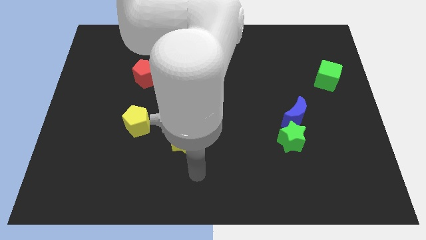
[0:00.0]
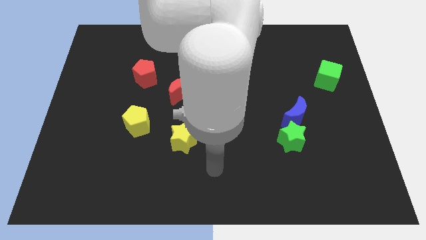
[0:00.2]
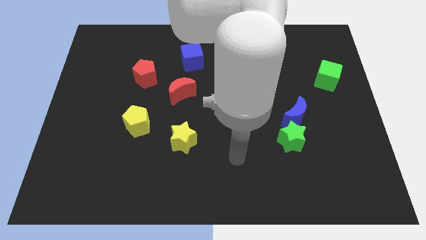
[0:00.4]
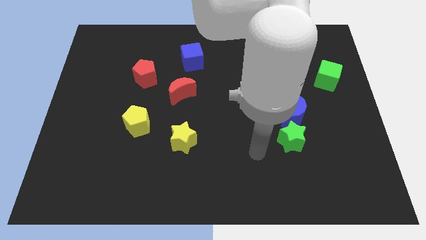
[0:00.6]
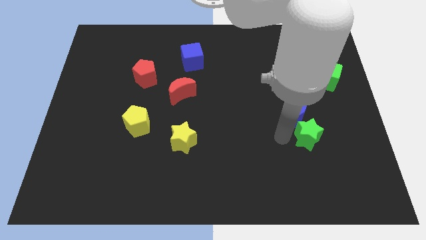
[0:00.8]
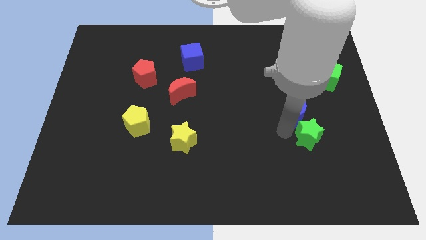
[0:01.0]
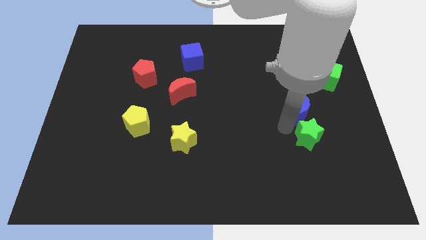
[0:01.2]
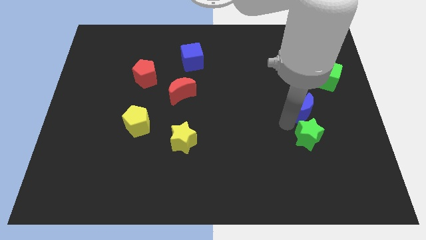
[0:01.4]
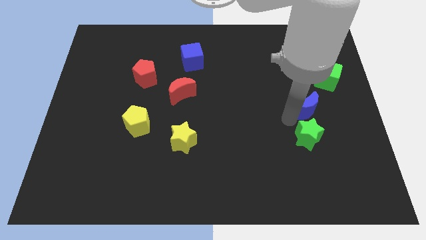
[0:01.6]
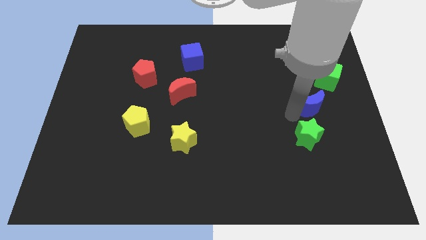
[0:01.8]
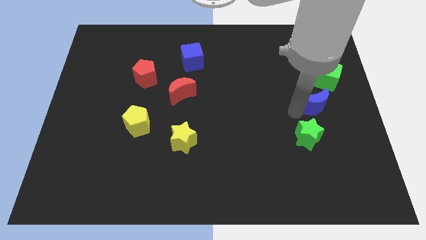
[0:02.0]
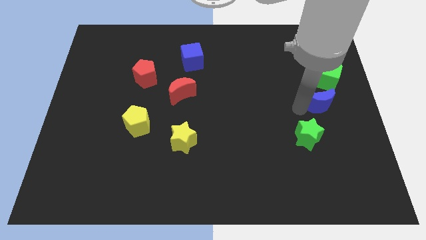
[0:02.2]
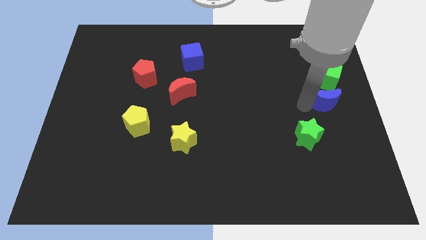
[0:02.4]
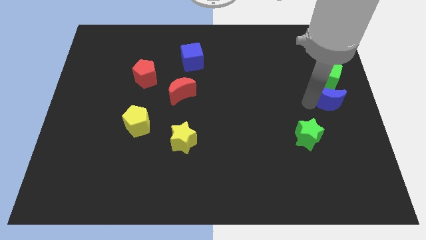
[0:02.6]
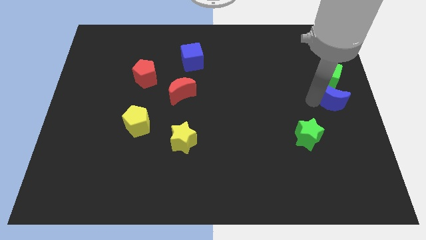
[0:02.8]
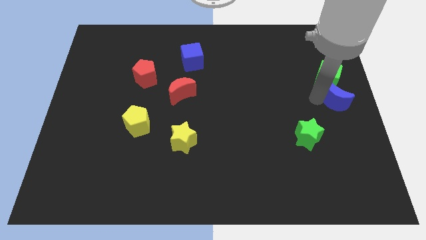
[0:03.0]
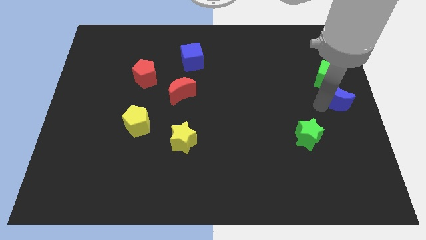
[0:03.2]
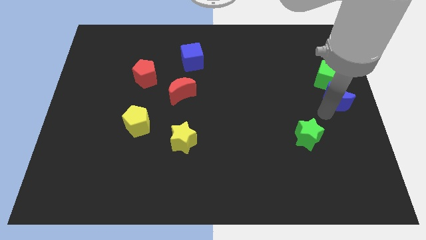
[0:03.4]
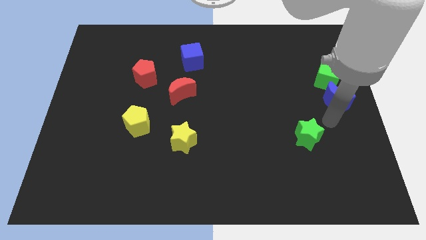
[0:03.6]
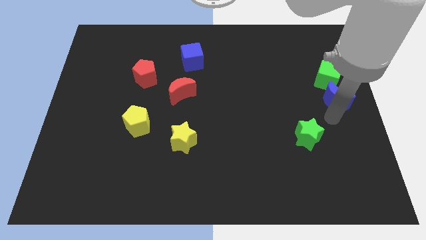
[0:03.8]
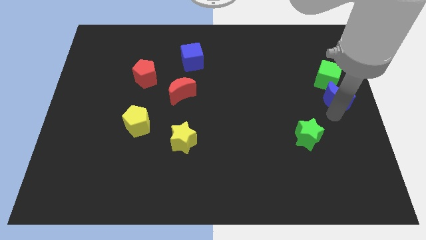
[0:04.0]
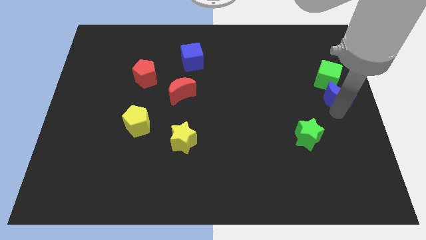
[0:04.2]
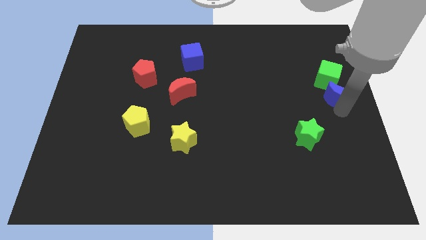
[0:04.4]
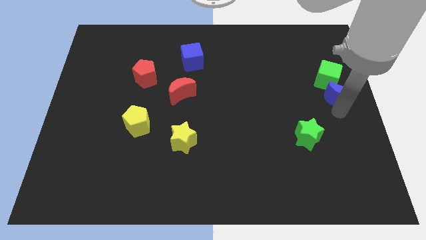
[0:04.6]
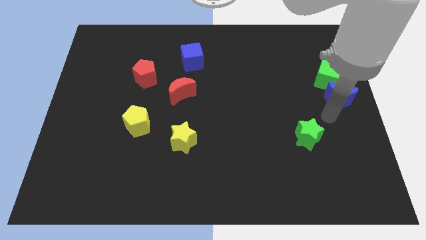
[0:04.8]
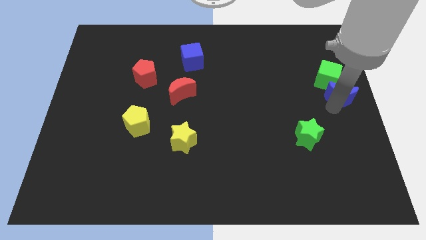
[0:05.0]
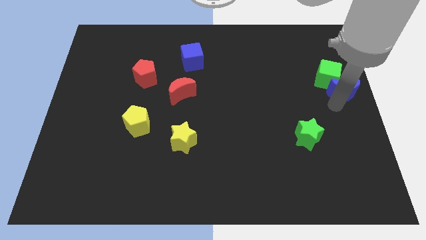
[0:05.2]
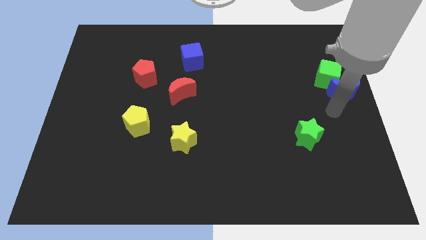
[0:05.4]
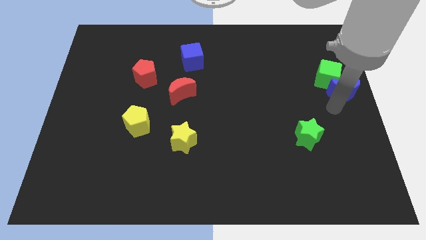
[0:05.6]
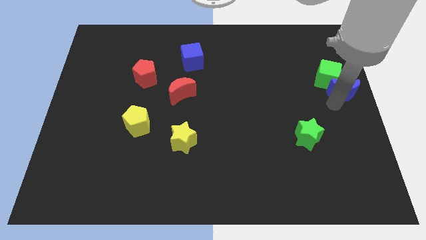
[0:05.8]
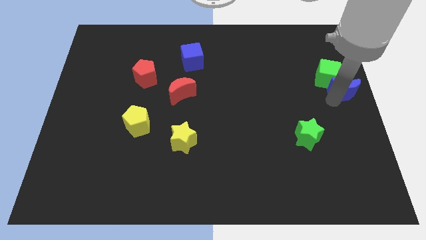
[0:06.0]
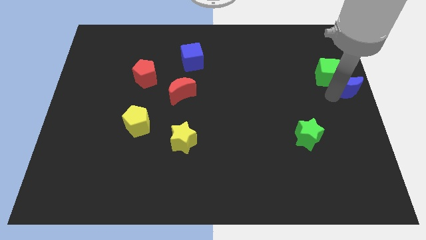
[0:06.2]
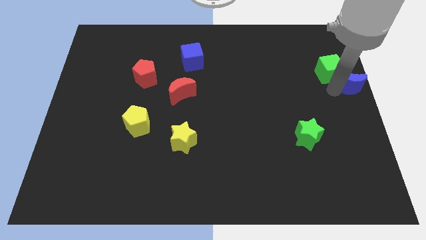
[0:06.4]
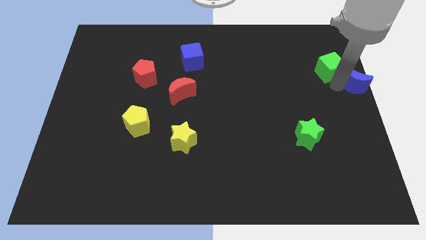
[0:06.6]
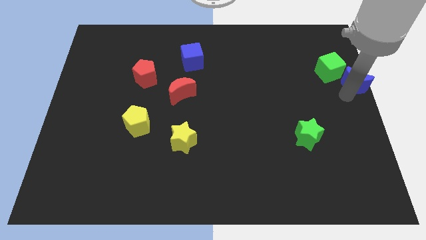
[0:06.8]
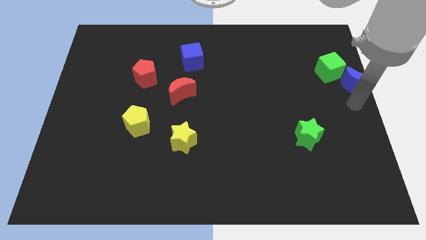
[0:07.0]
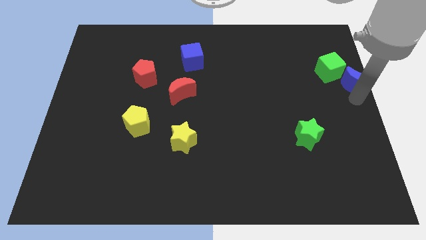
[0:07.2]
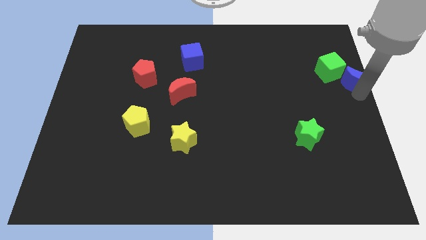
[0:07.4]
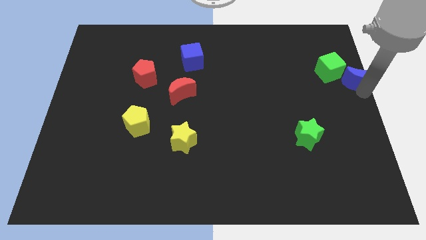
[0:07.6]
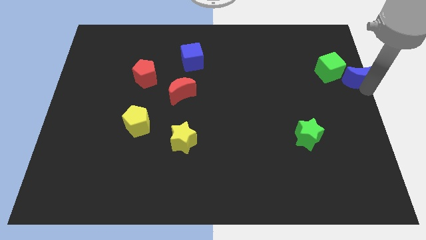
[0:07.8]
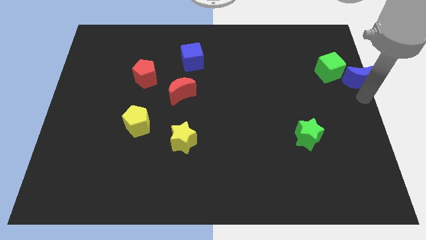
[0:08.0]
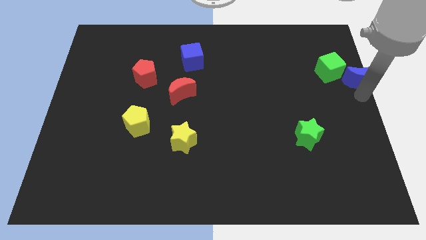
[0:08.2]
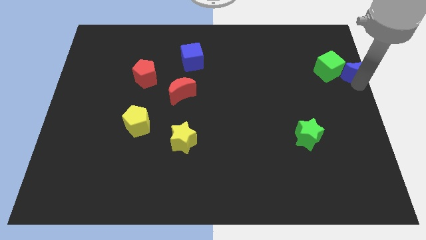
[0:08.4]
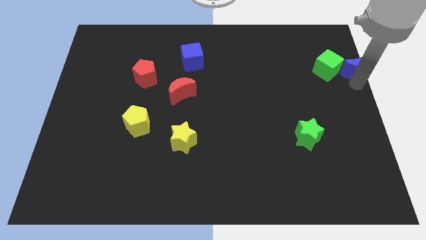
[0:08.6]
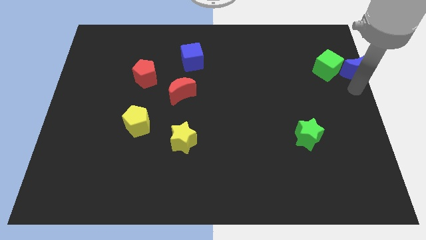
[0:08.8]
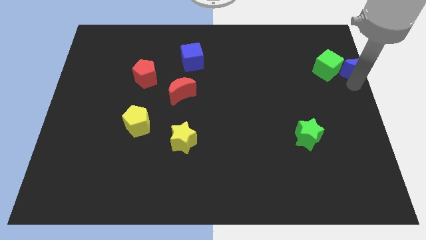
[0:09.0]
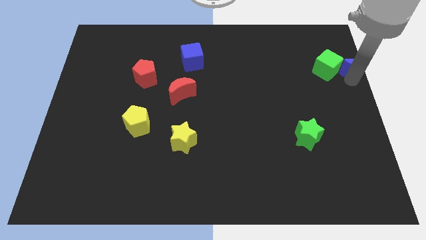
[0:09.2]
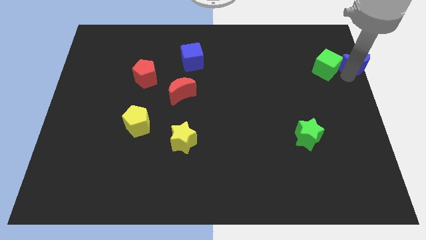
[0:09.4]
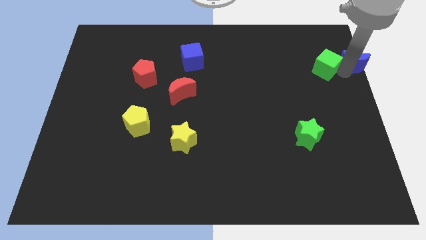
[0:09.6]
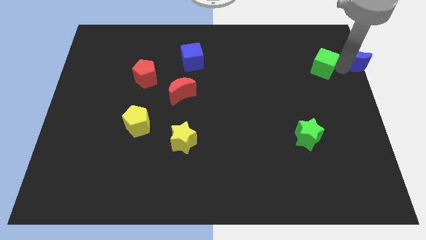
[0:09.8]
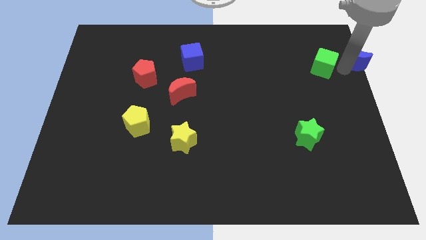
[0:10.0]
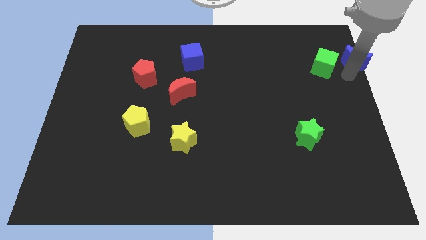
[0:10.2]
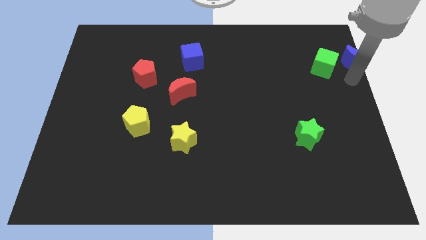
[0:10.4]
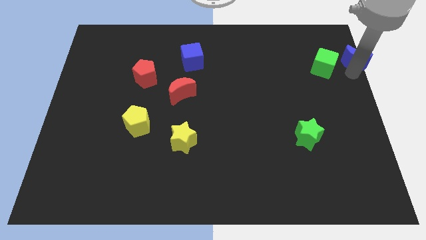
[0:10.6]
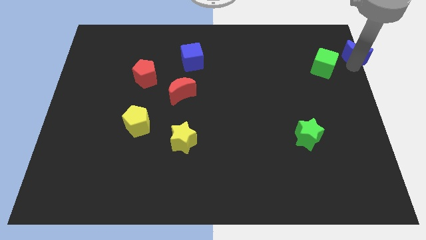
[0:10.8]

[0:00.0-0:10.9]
slide the blue moon to the top right

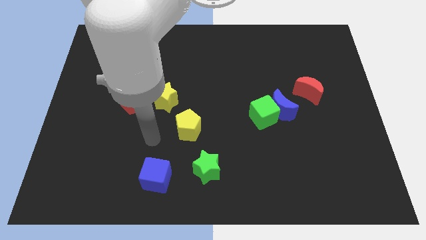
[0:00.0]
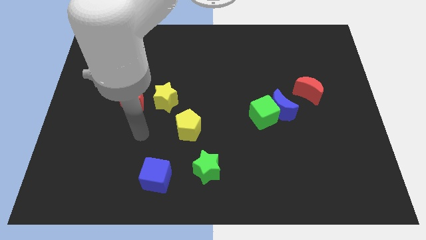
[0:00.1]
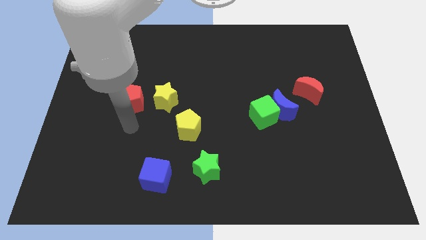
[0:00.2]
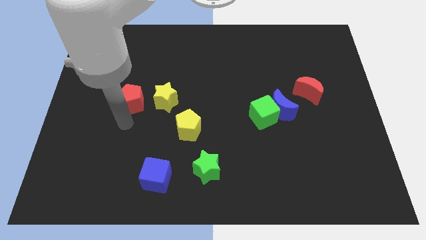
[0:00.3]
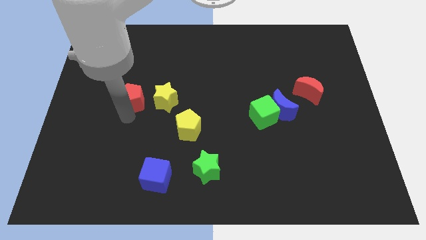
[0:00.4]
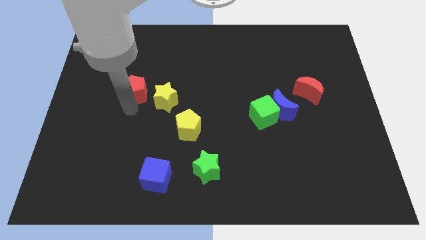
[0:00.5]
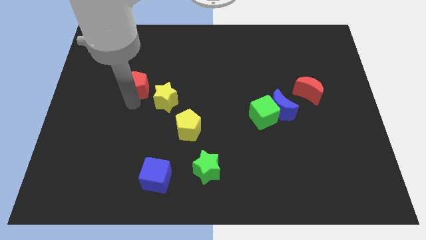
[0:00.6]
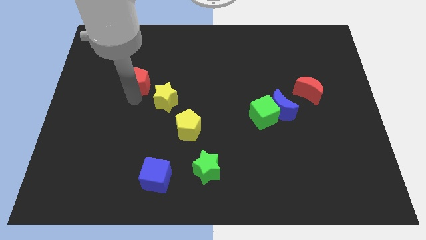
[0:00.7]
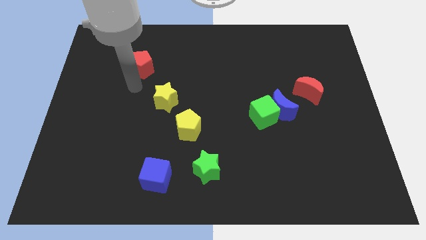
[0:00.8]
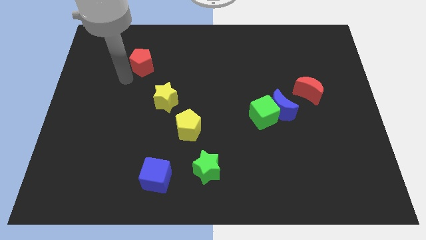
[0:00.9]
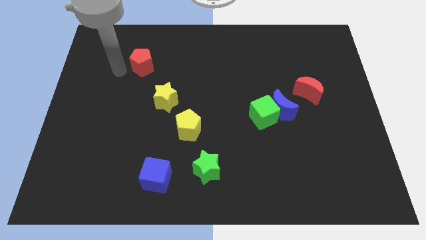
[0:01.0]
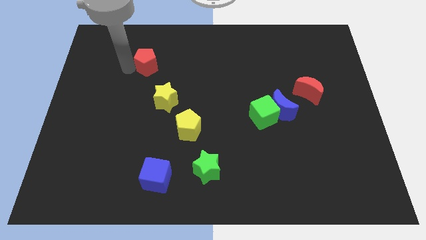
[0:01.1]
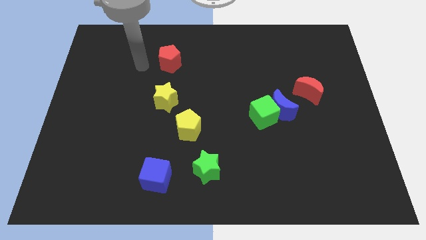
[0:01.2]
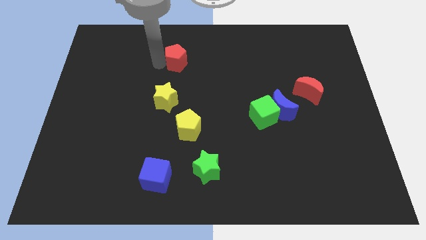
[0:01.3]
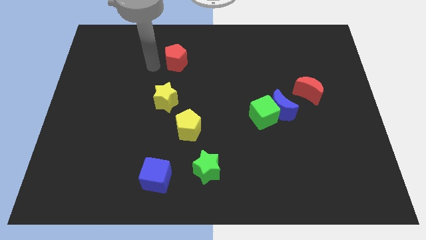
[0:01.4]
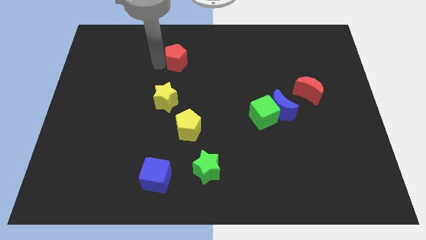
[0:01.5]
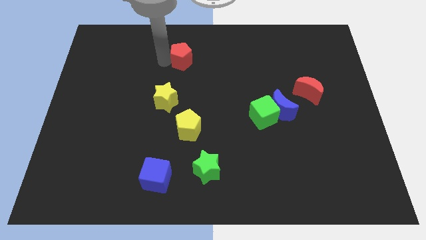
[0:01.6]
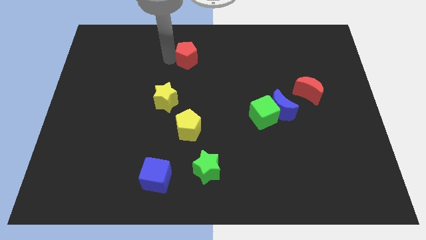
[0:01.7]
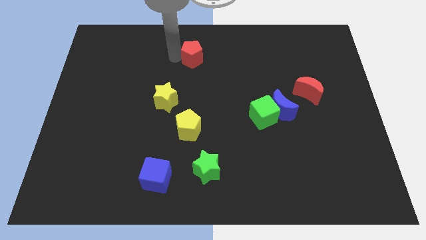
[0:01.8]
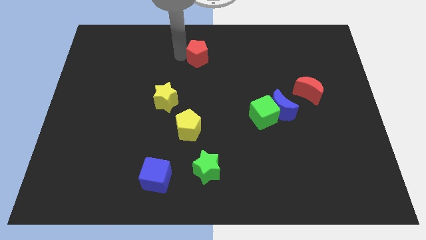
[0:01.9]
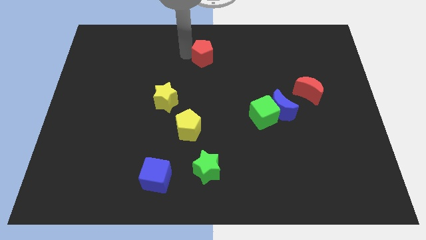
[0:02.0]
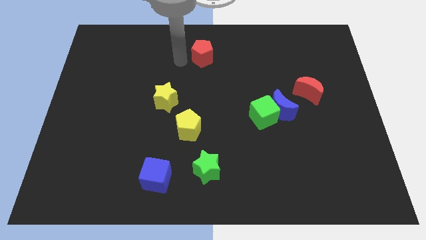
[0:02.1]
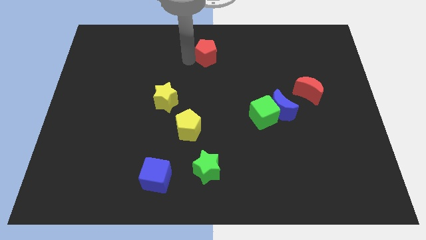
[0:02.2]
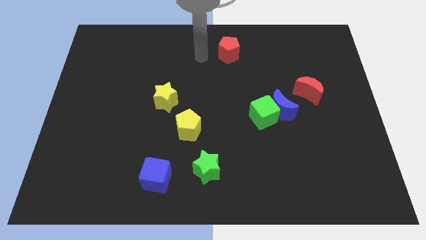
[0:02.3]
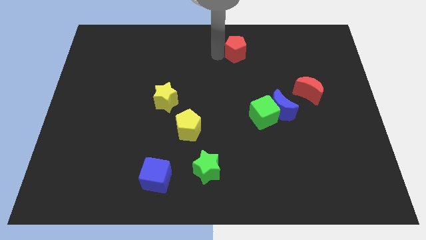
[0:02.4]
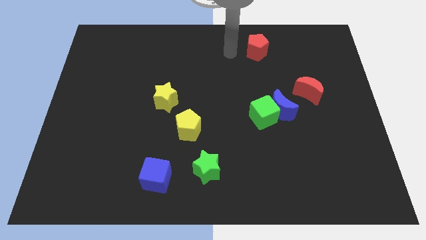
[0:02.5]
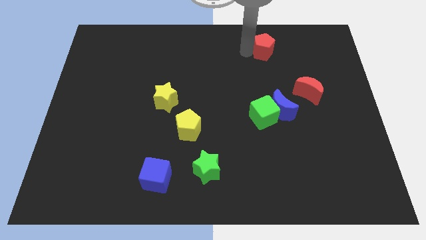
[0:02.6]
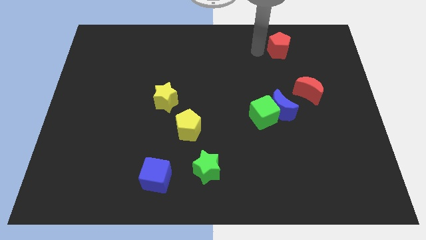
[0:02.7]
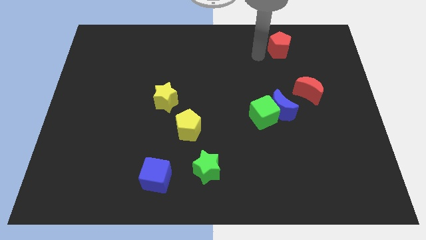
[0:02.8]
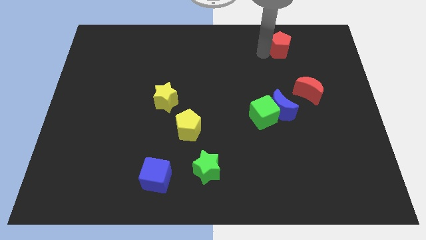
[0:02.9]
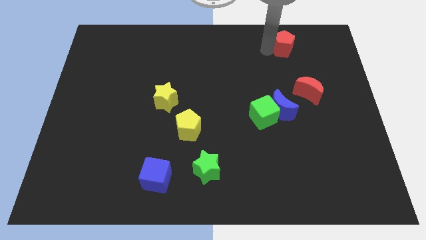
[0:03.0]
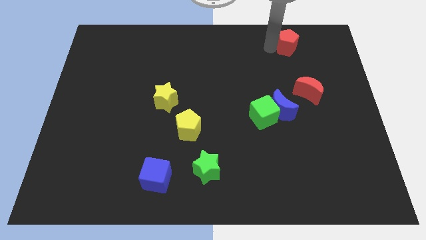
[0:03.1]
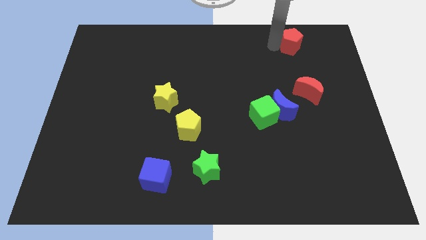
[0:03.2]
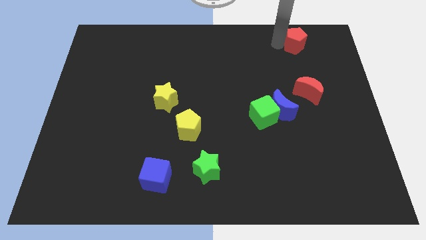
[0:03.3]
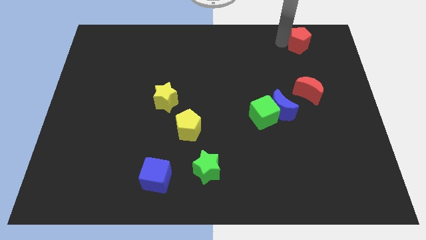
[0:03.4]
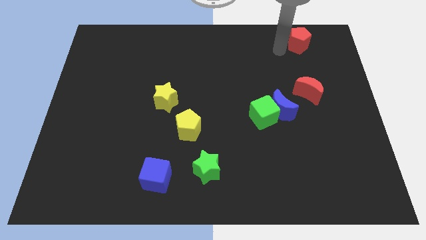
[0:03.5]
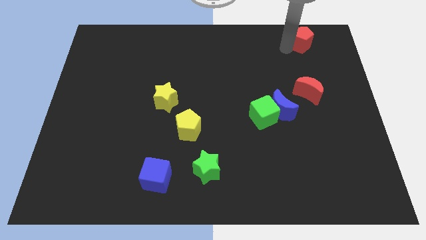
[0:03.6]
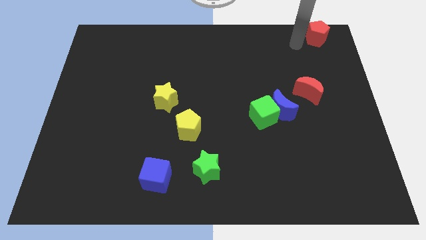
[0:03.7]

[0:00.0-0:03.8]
push the red pentagon to the upper right corner
